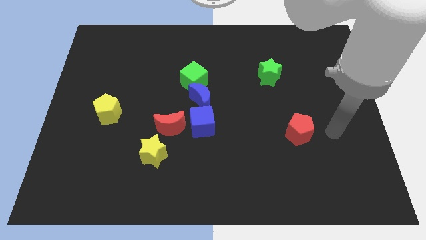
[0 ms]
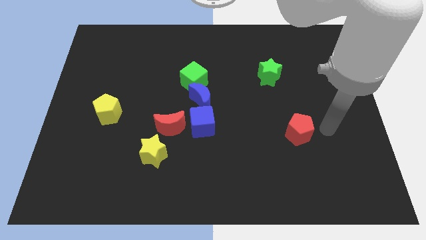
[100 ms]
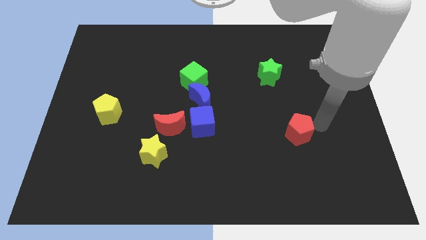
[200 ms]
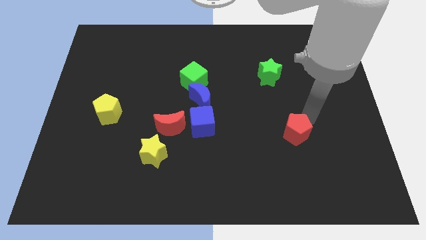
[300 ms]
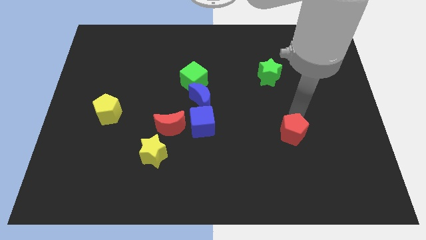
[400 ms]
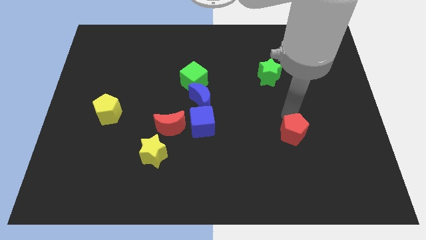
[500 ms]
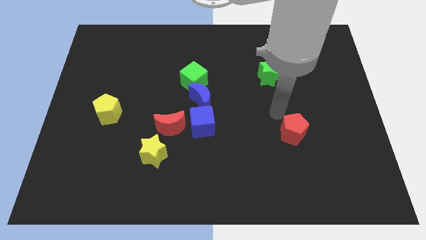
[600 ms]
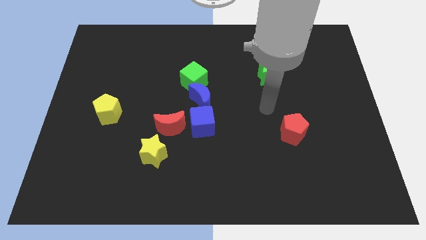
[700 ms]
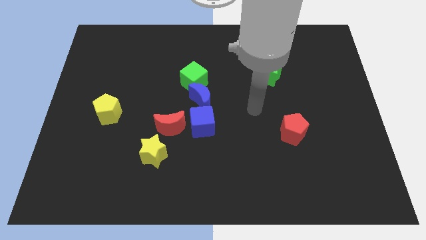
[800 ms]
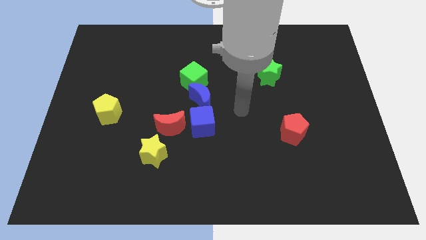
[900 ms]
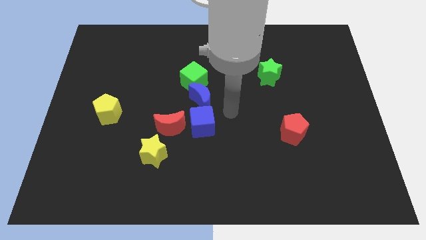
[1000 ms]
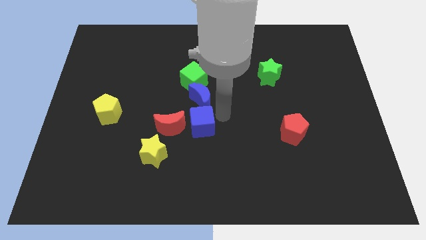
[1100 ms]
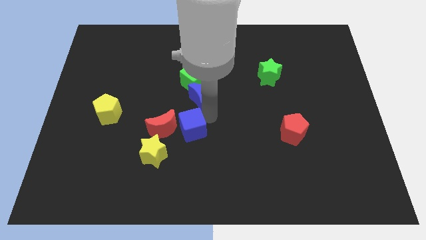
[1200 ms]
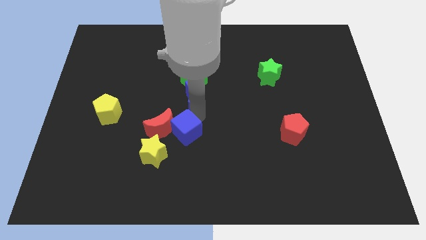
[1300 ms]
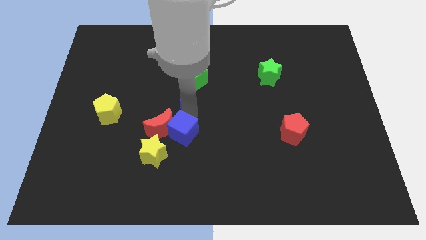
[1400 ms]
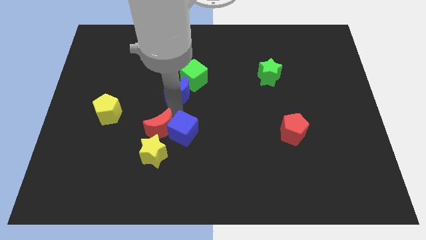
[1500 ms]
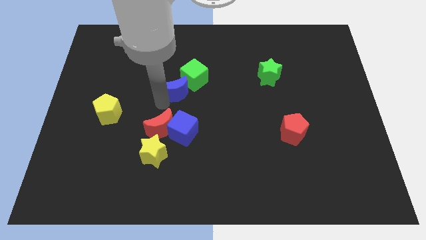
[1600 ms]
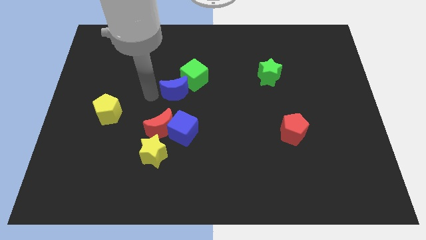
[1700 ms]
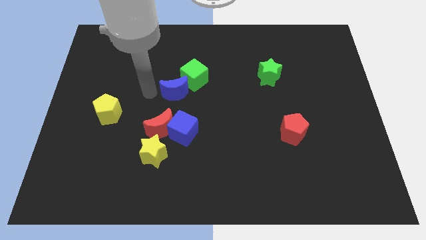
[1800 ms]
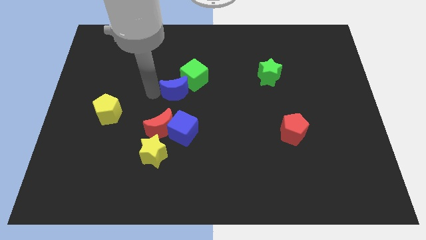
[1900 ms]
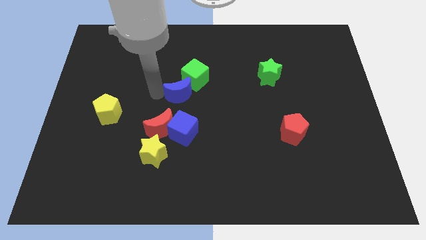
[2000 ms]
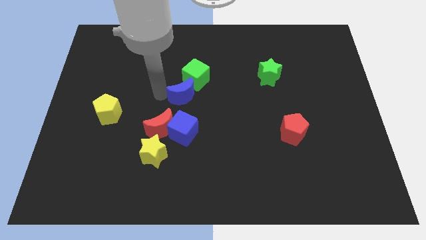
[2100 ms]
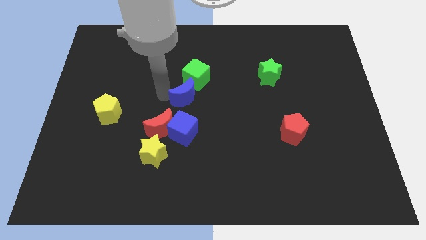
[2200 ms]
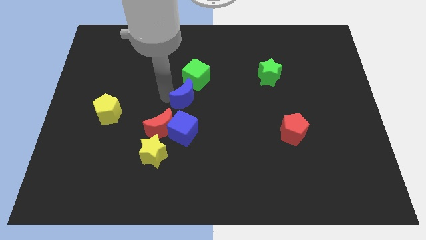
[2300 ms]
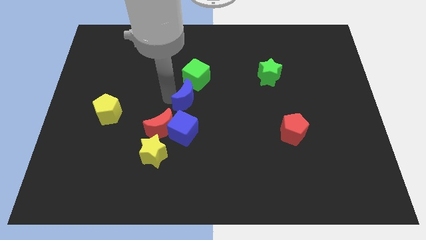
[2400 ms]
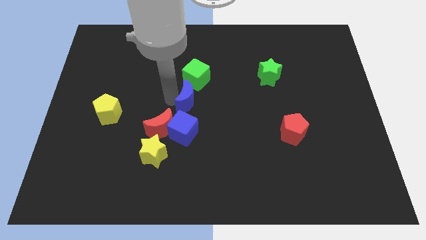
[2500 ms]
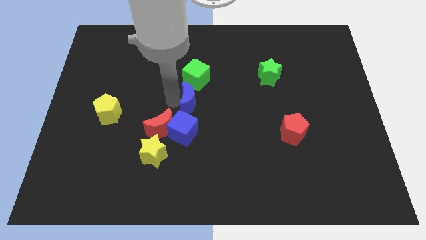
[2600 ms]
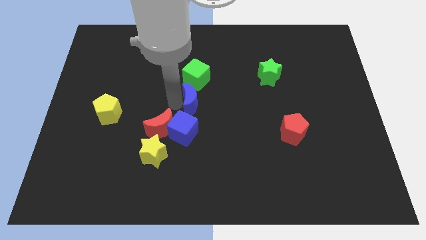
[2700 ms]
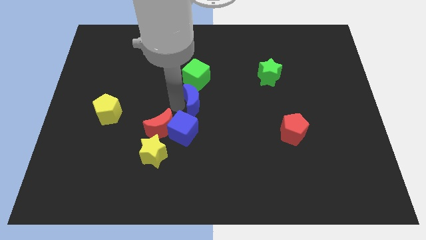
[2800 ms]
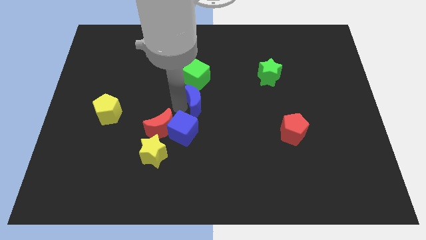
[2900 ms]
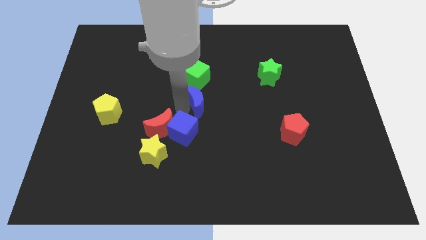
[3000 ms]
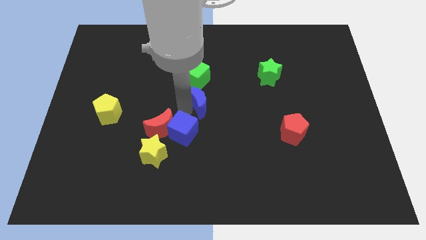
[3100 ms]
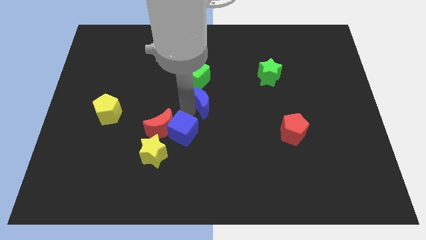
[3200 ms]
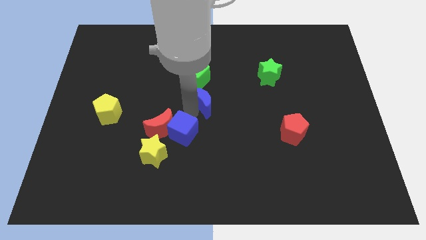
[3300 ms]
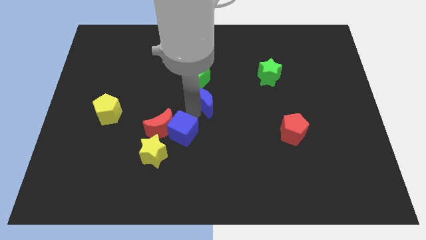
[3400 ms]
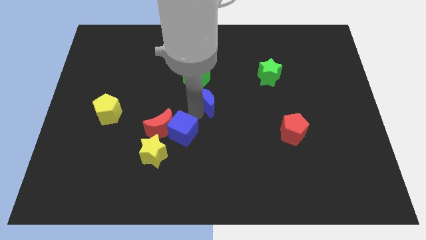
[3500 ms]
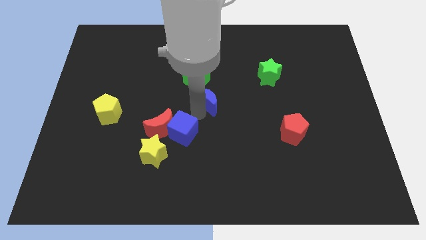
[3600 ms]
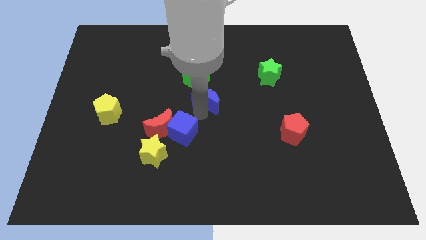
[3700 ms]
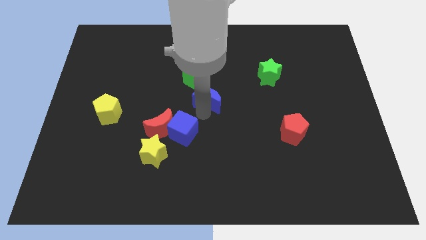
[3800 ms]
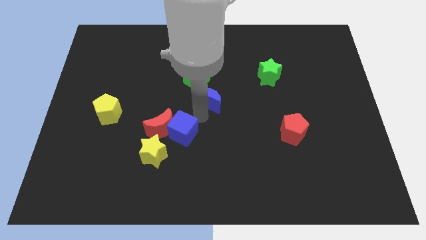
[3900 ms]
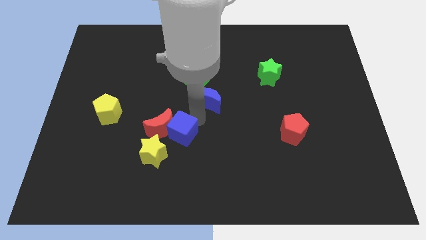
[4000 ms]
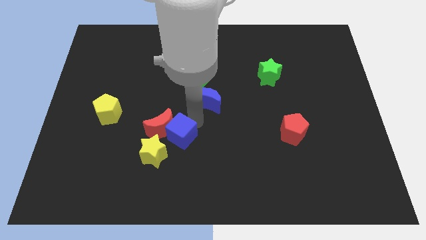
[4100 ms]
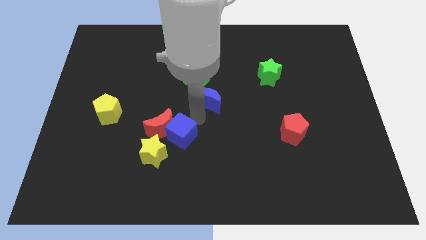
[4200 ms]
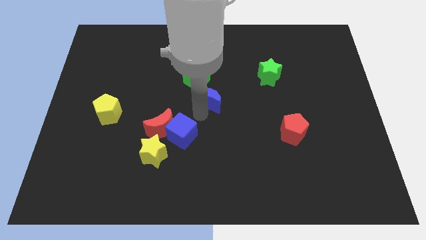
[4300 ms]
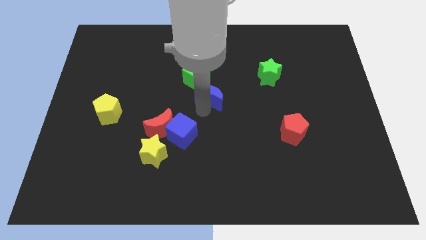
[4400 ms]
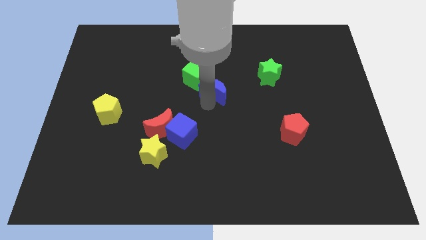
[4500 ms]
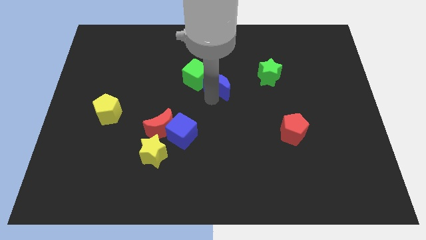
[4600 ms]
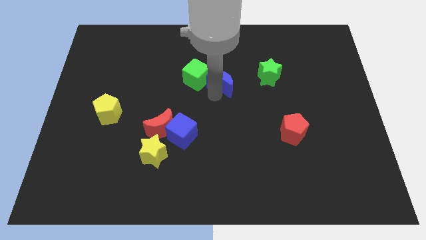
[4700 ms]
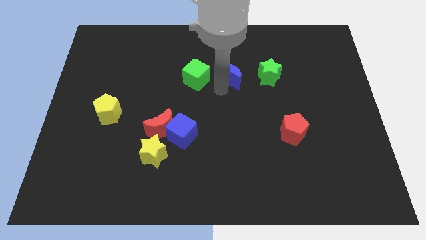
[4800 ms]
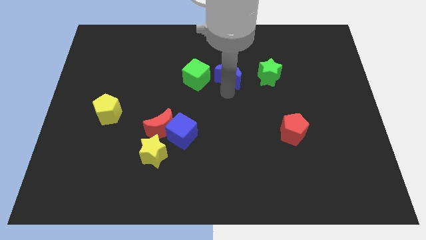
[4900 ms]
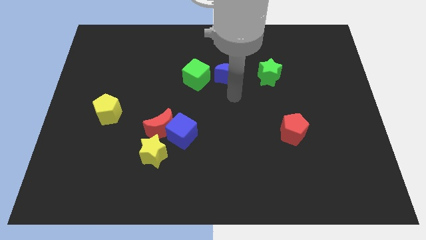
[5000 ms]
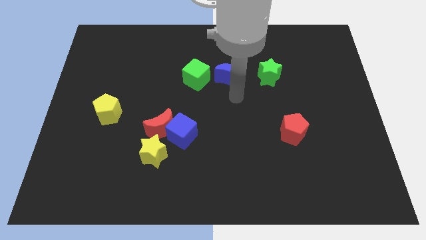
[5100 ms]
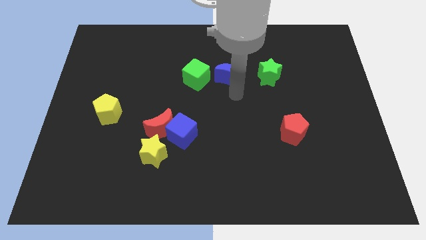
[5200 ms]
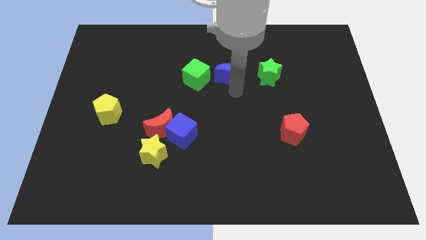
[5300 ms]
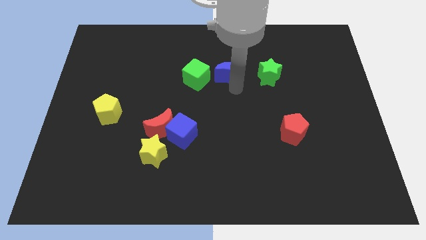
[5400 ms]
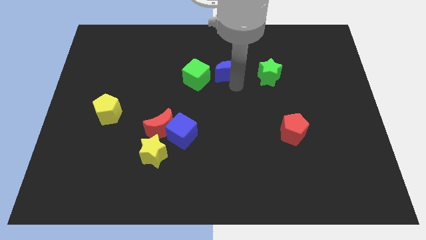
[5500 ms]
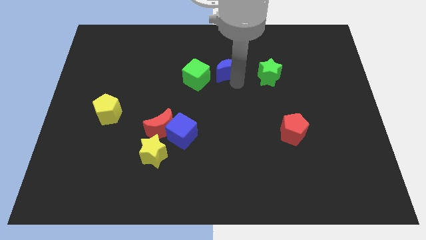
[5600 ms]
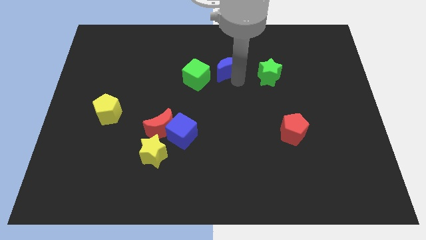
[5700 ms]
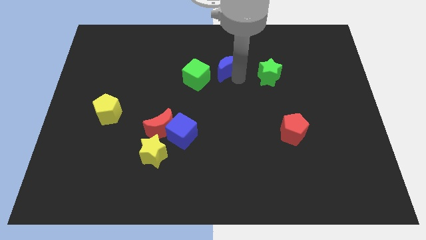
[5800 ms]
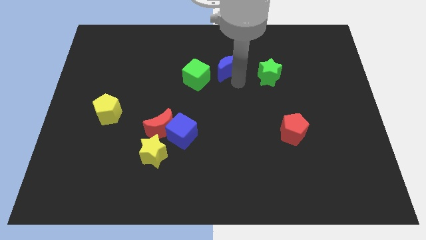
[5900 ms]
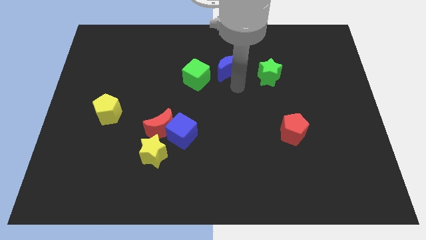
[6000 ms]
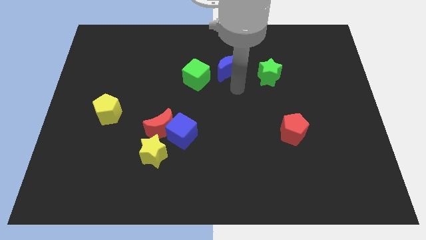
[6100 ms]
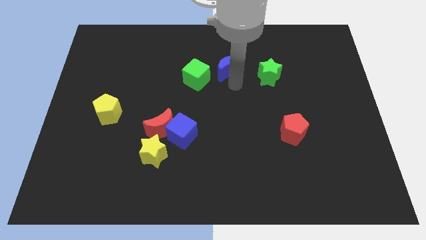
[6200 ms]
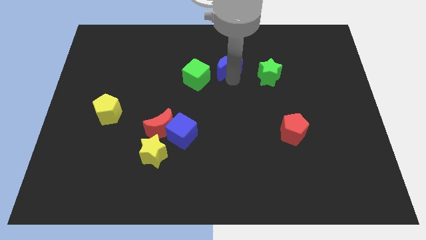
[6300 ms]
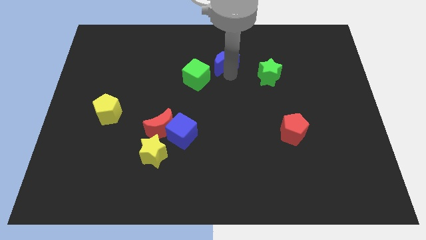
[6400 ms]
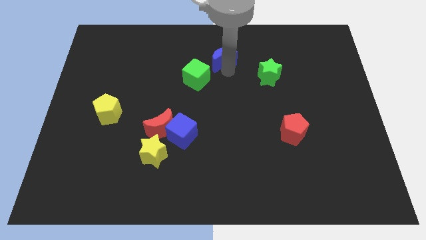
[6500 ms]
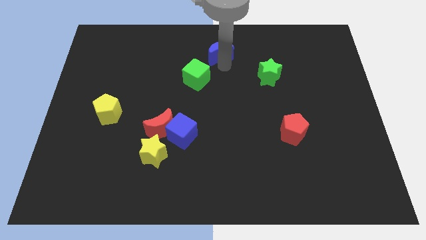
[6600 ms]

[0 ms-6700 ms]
slide the blue moon to the towards your base
